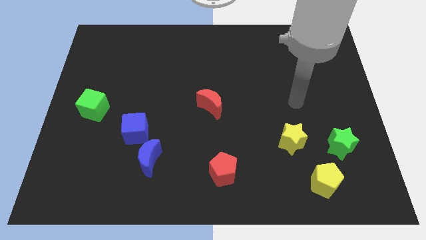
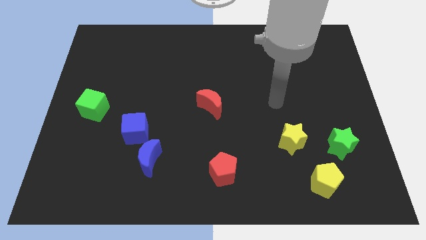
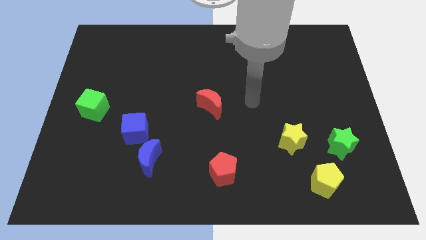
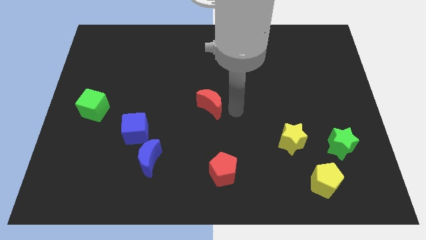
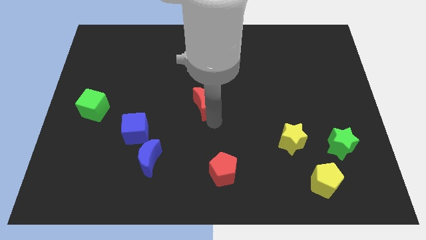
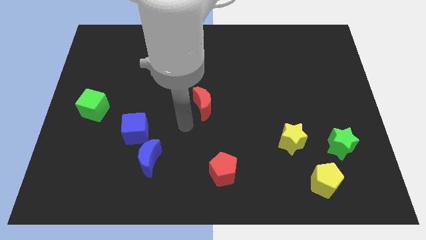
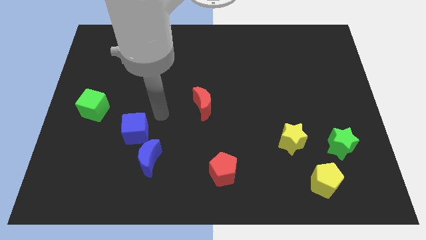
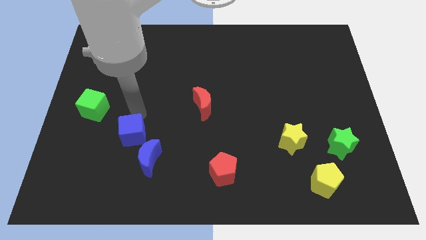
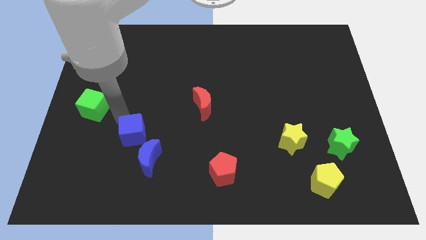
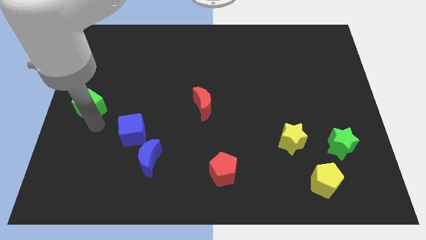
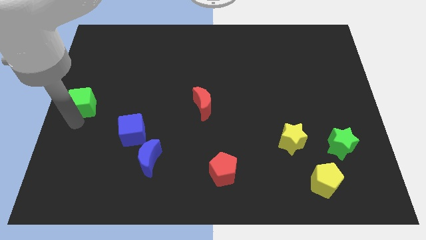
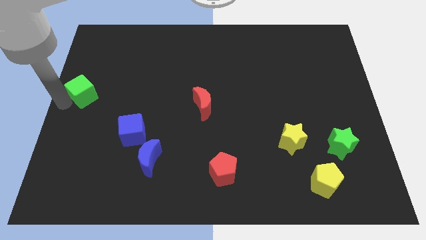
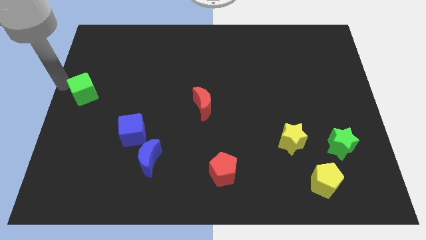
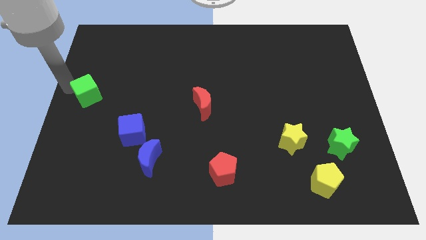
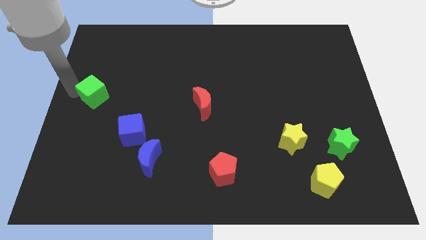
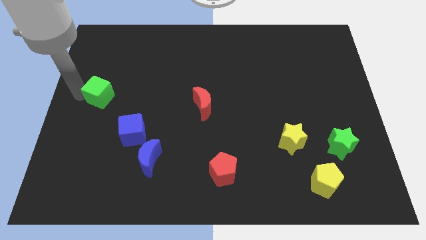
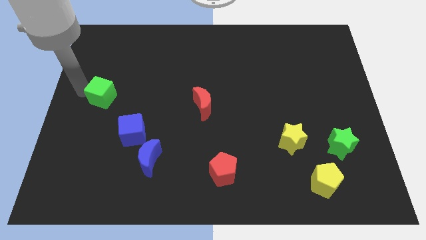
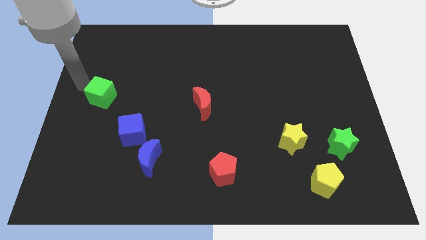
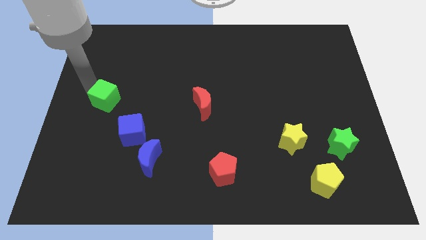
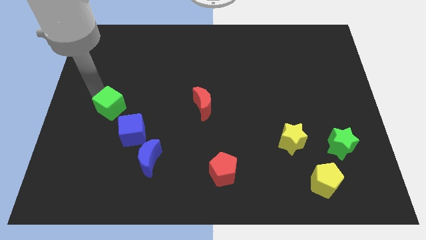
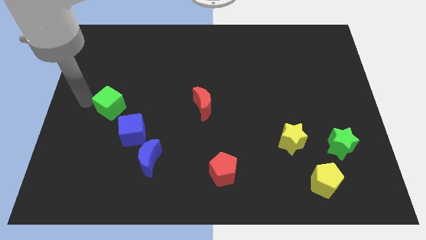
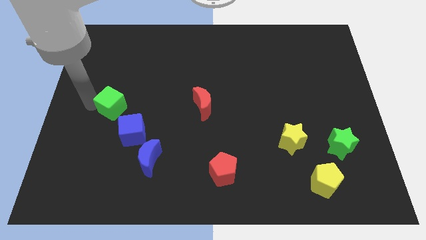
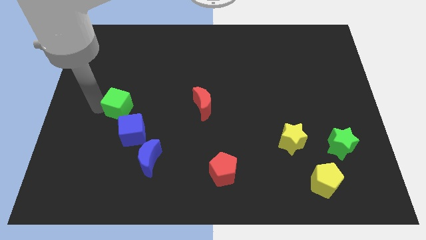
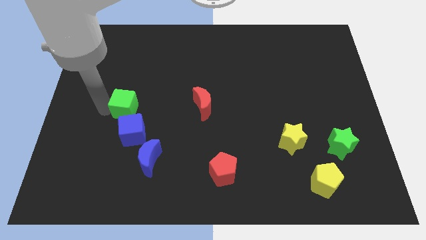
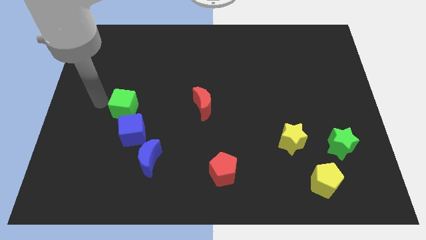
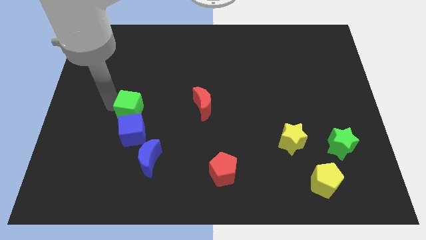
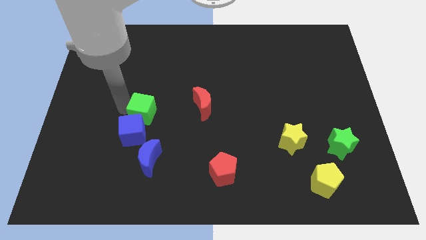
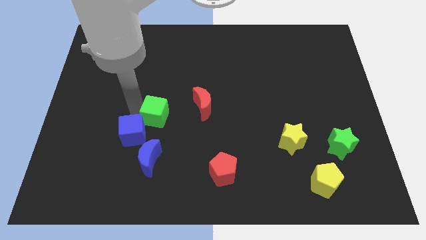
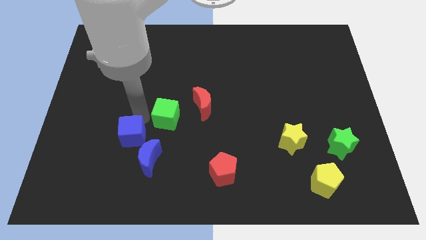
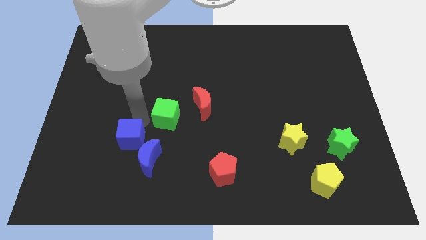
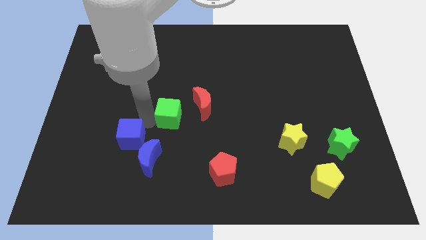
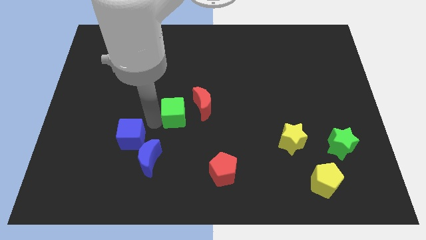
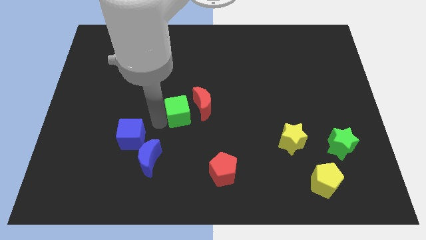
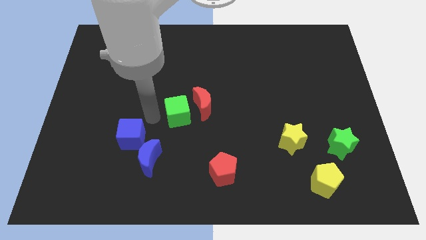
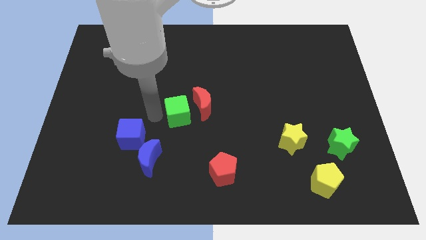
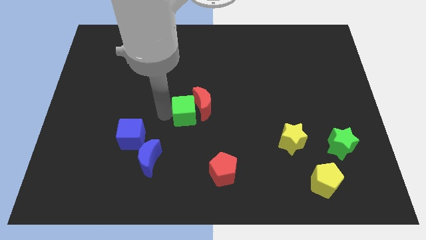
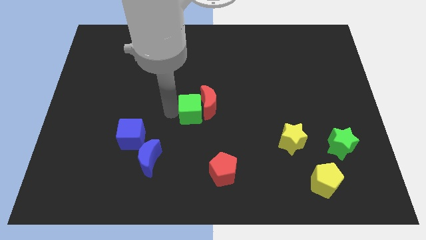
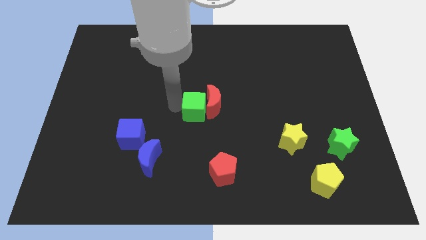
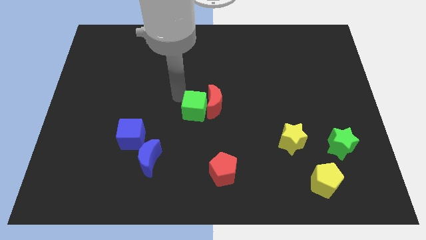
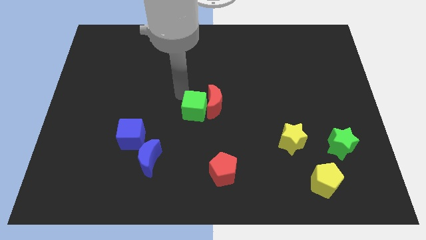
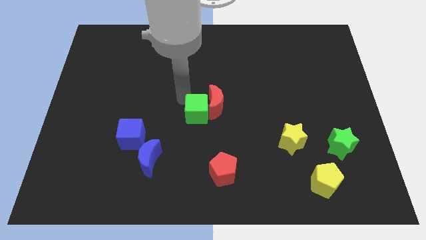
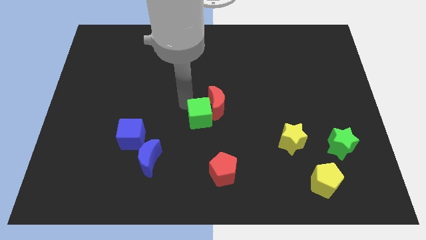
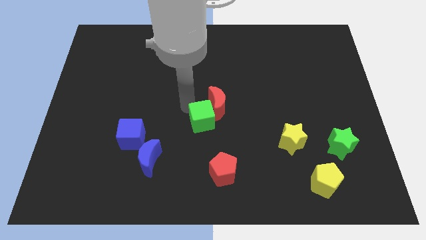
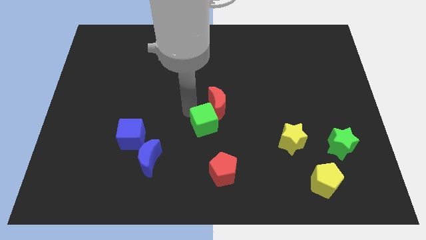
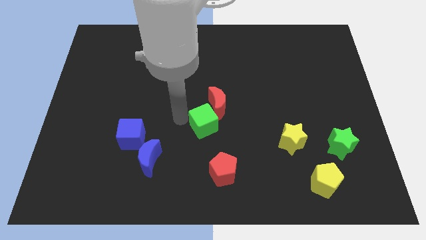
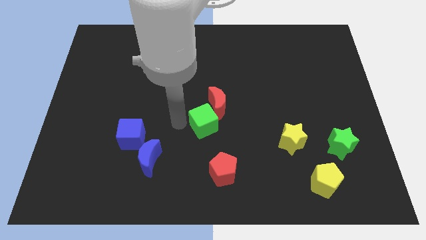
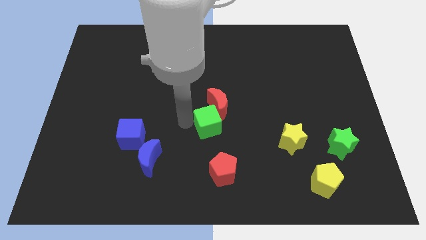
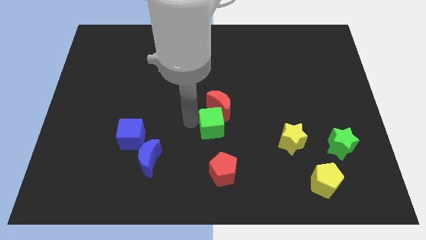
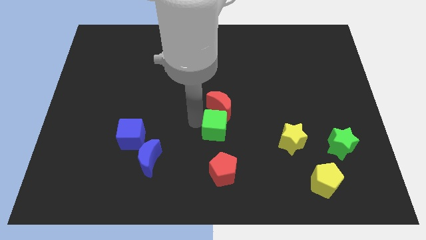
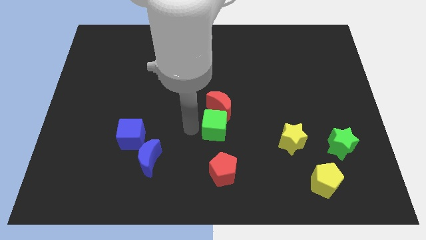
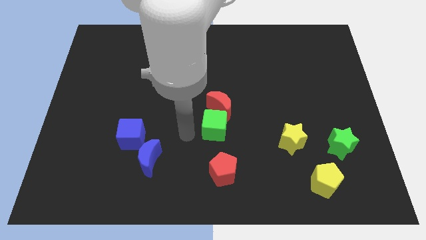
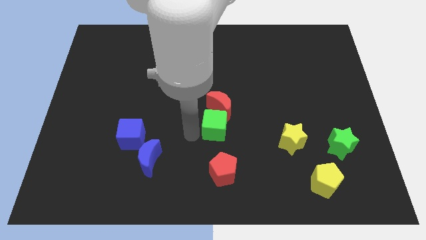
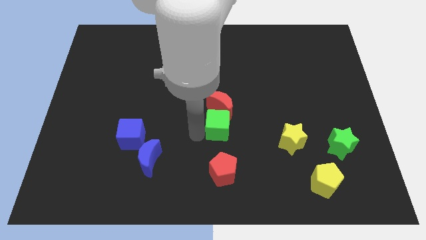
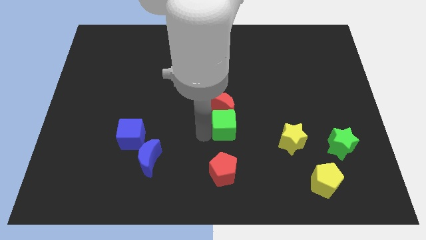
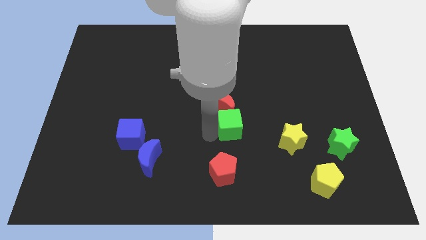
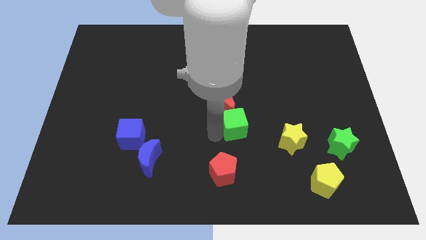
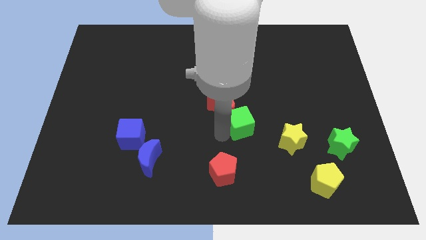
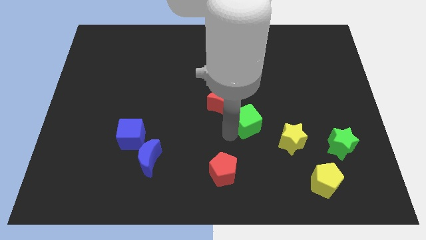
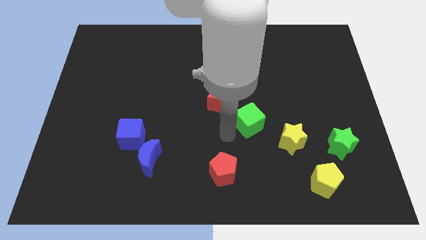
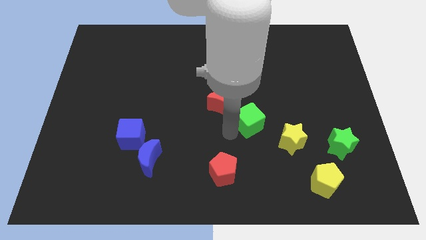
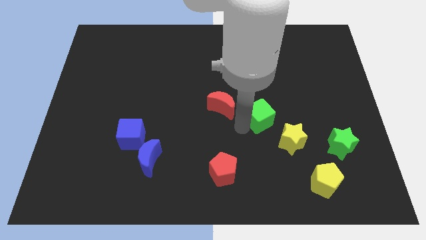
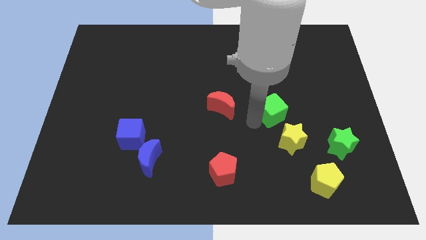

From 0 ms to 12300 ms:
put the green cube to the top of the yellow star

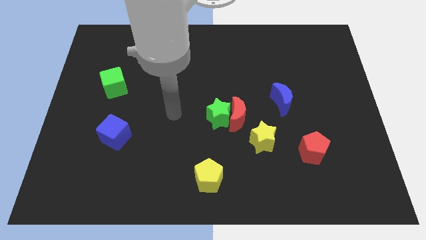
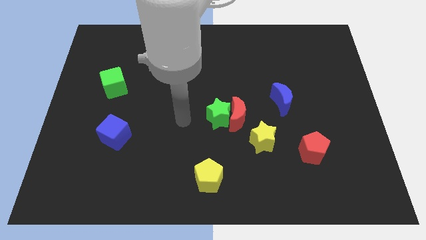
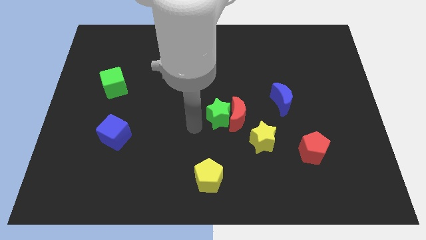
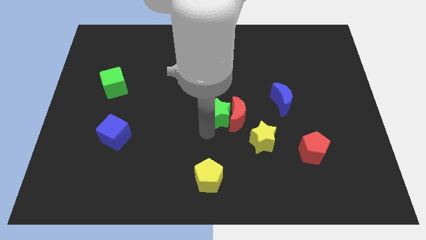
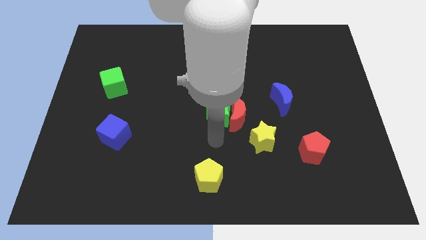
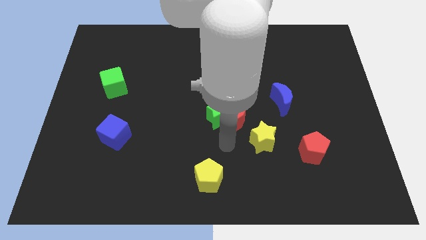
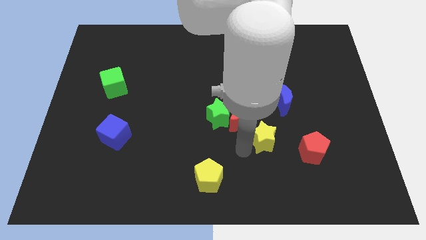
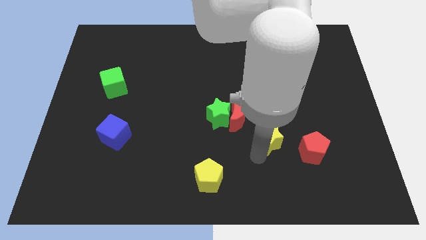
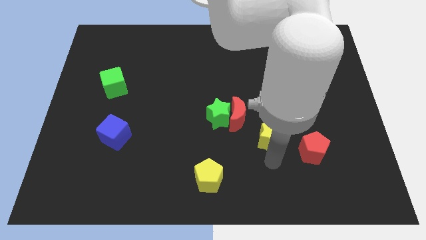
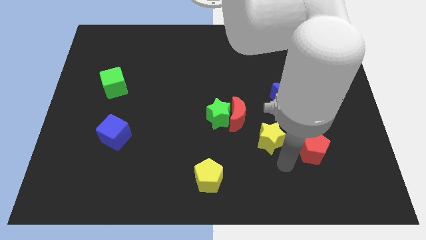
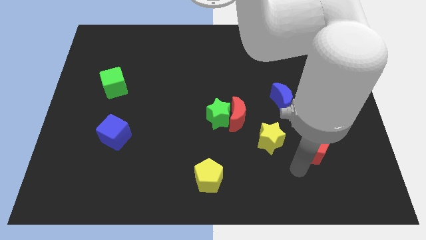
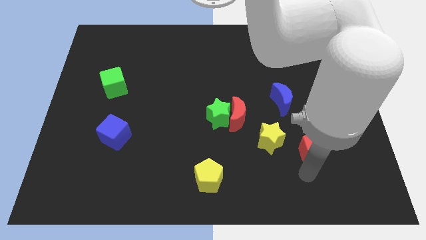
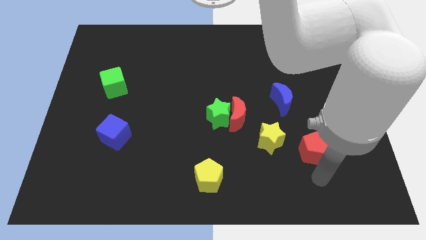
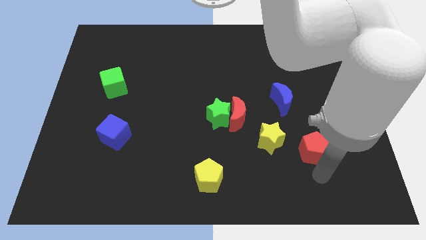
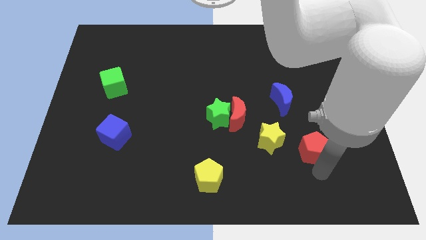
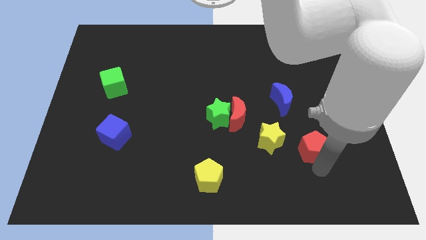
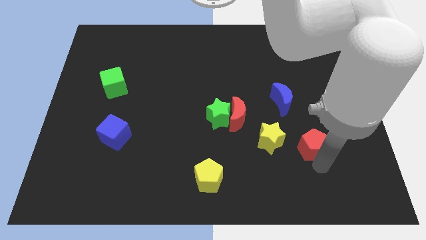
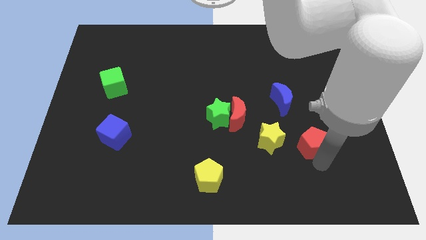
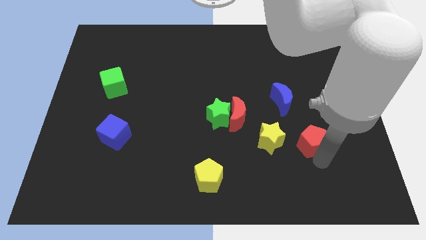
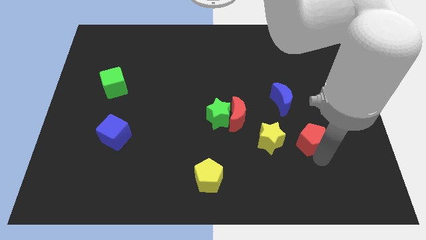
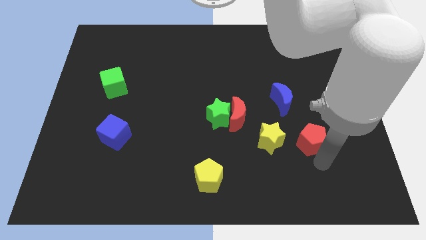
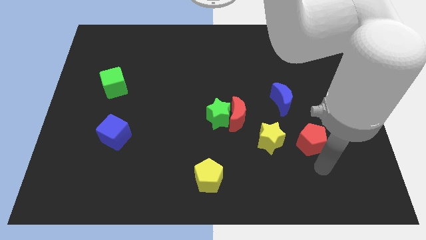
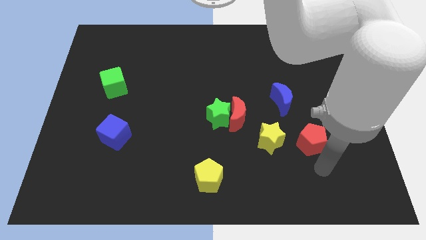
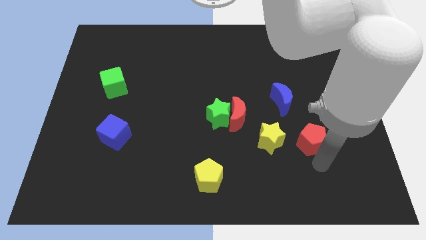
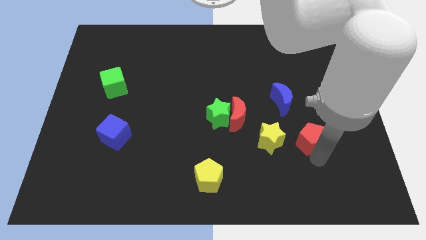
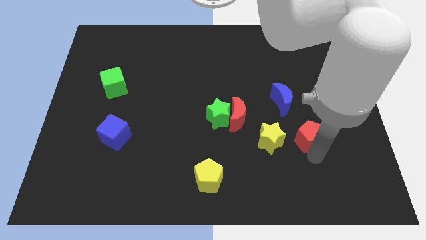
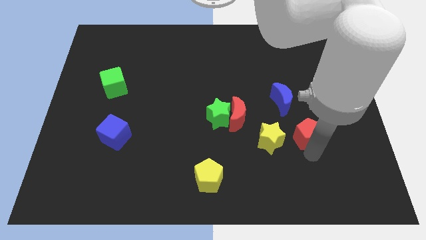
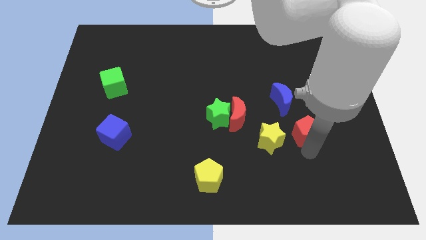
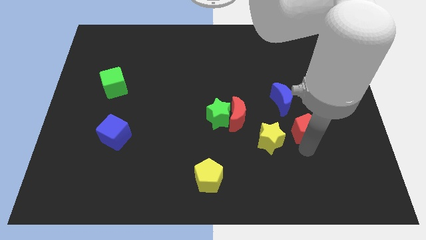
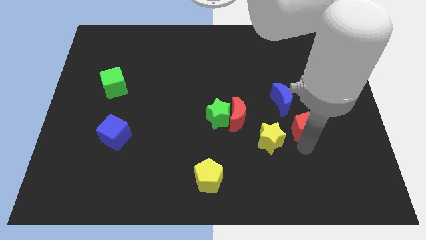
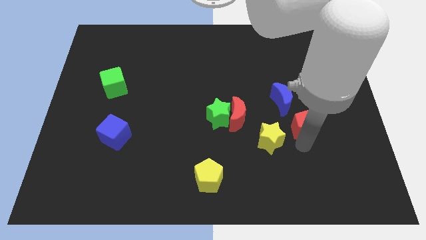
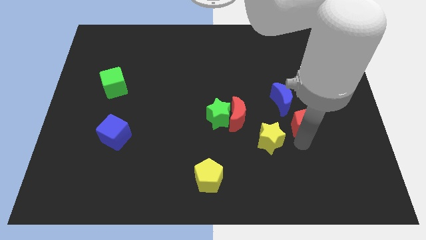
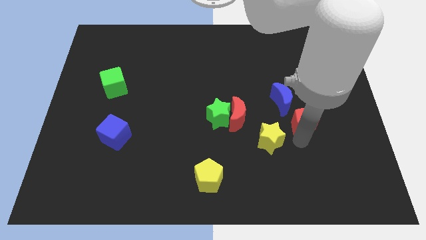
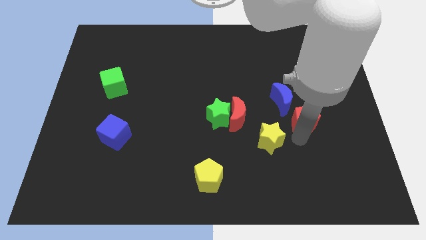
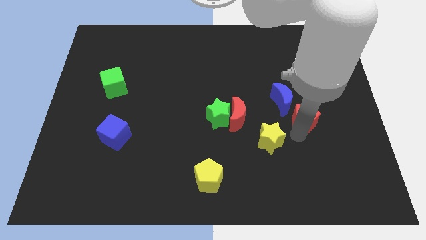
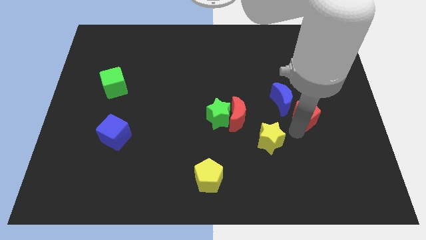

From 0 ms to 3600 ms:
move the red pentagon to the right side of the blue moon
